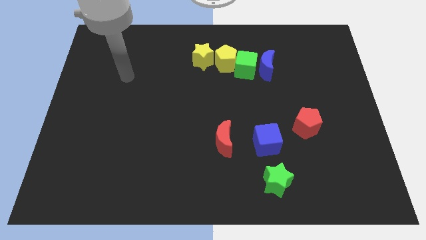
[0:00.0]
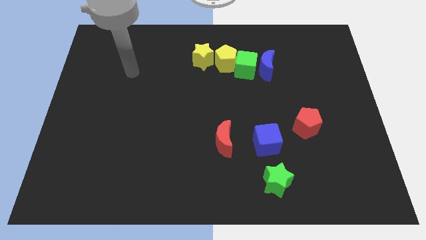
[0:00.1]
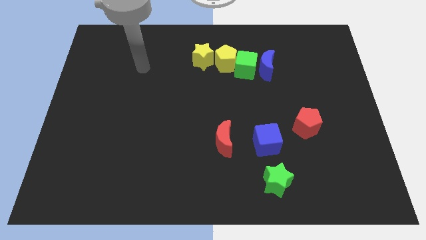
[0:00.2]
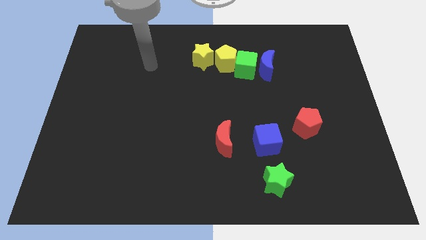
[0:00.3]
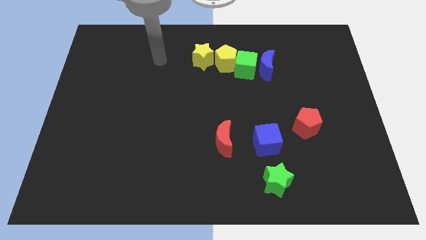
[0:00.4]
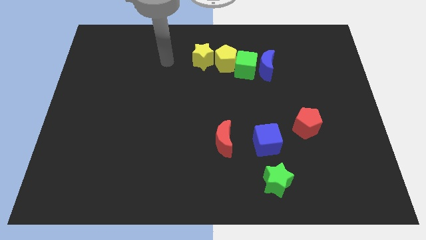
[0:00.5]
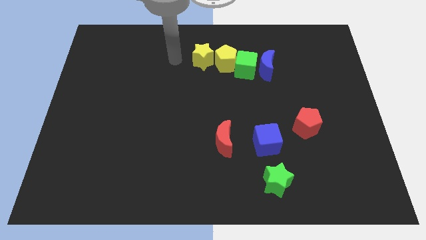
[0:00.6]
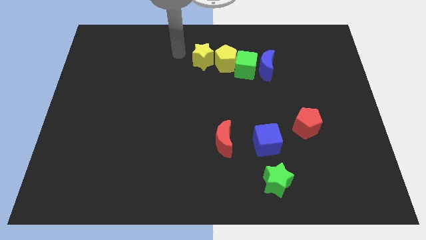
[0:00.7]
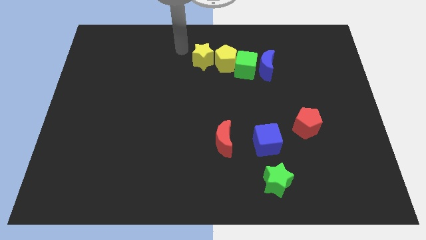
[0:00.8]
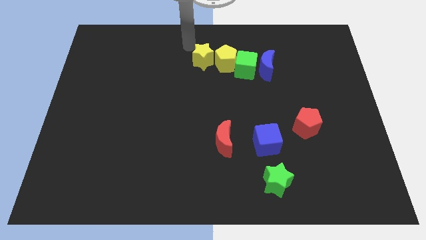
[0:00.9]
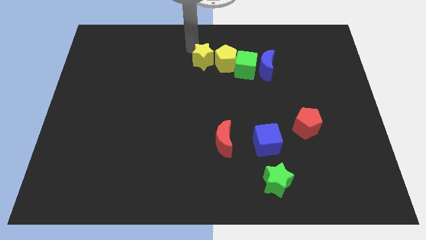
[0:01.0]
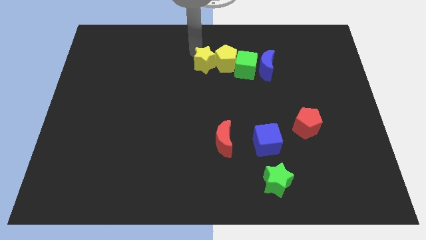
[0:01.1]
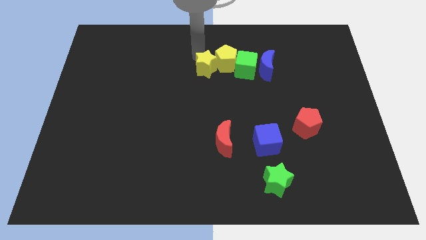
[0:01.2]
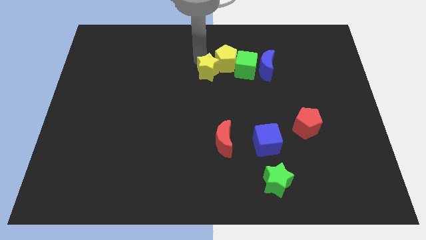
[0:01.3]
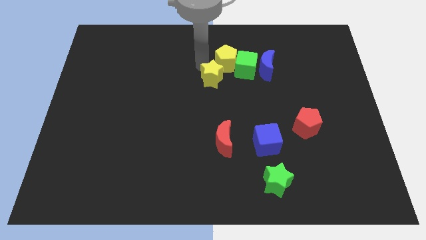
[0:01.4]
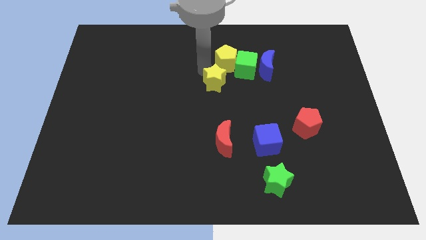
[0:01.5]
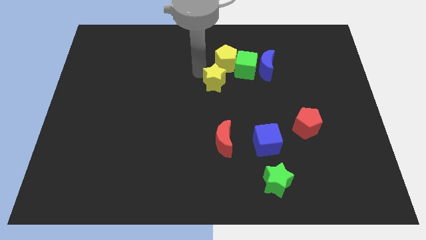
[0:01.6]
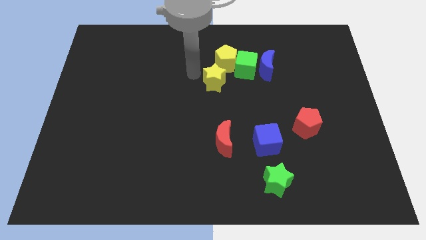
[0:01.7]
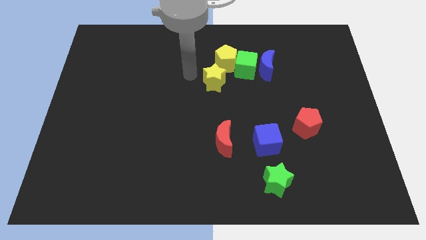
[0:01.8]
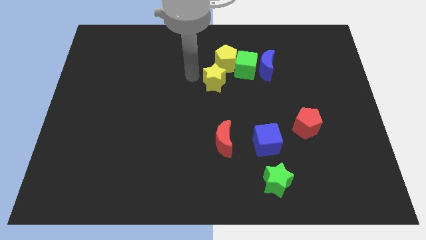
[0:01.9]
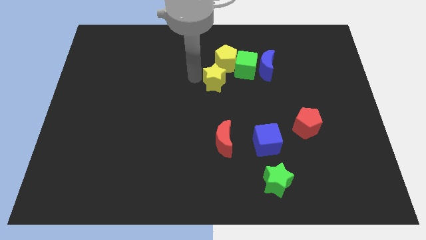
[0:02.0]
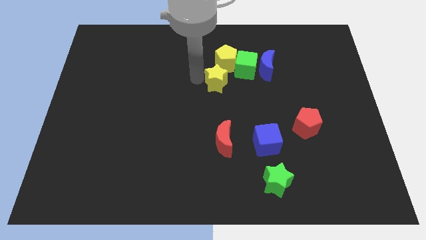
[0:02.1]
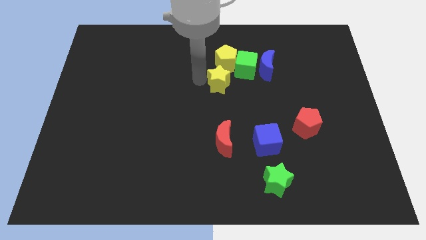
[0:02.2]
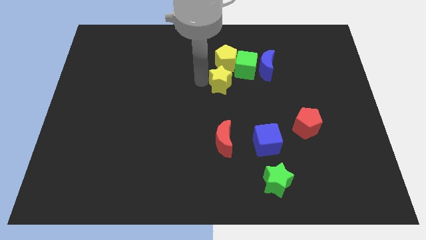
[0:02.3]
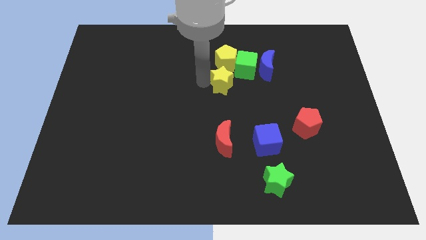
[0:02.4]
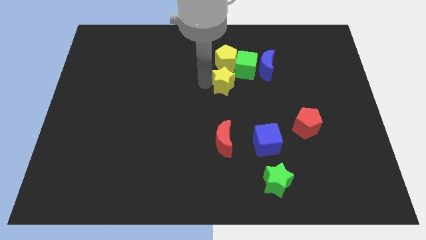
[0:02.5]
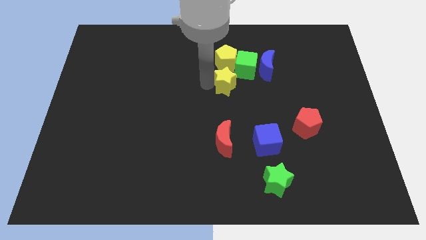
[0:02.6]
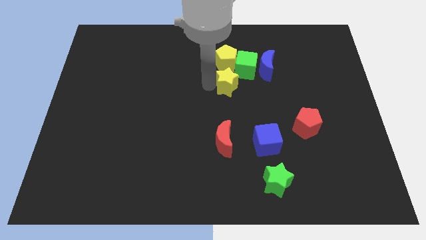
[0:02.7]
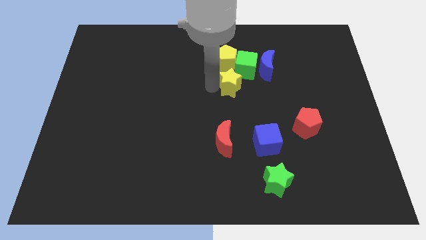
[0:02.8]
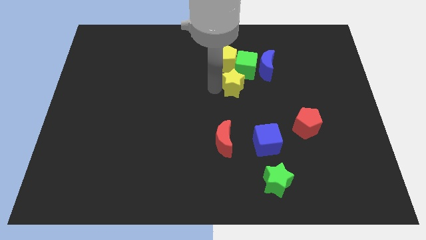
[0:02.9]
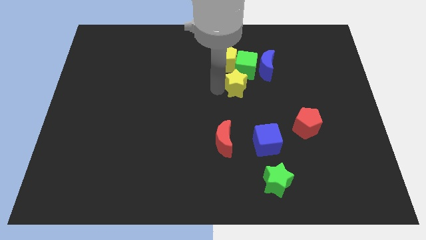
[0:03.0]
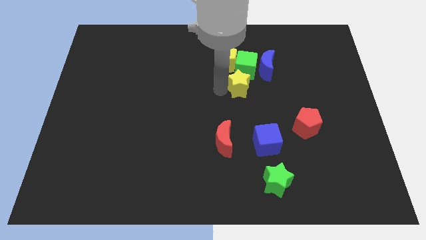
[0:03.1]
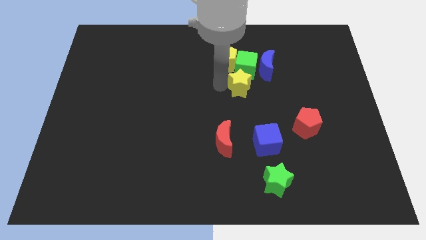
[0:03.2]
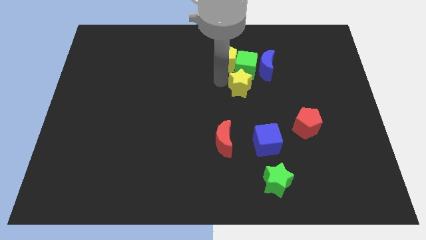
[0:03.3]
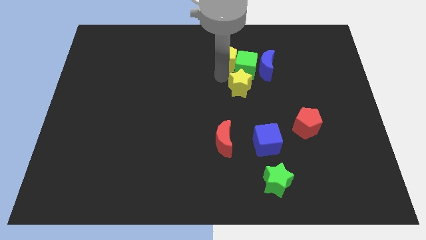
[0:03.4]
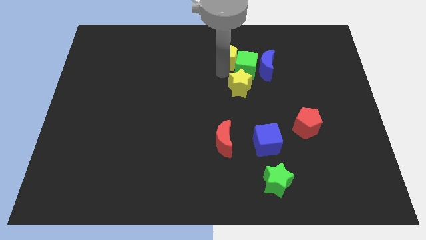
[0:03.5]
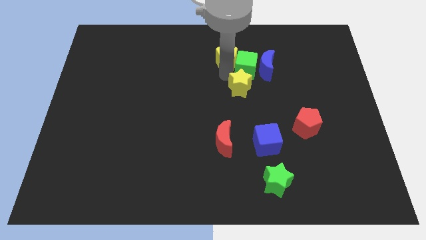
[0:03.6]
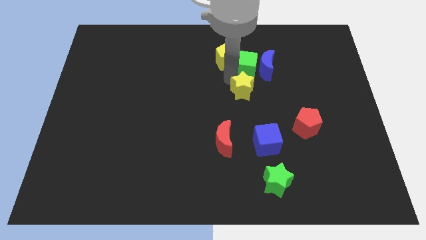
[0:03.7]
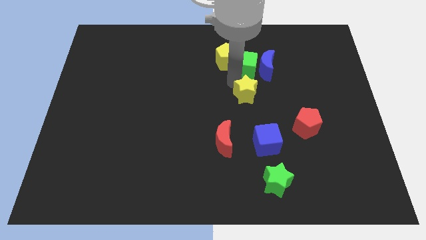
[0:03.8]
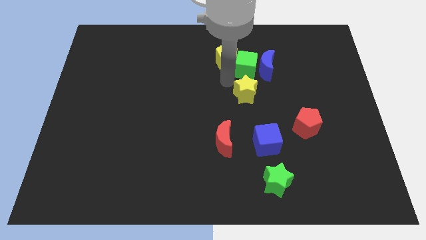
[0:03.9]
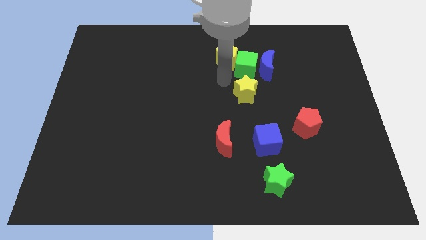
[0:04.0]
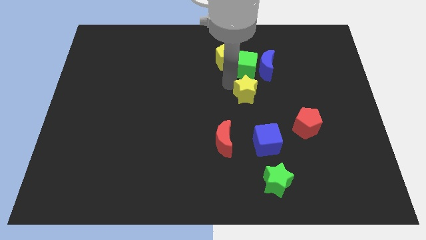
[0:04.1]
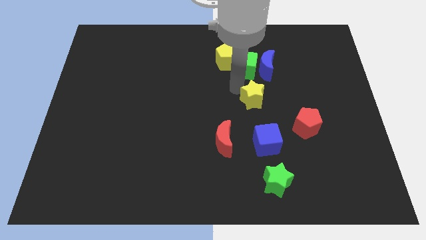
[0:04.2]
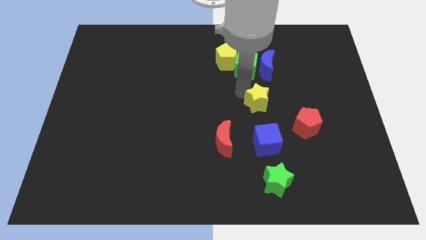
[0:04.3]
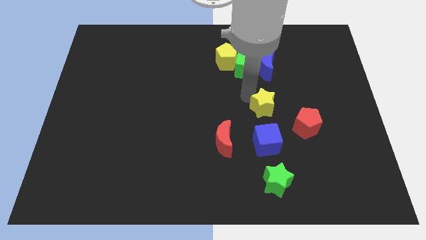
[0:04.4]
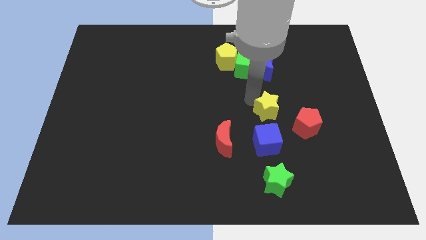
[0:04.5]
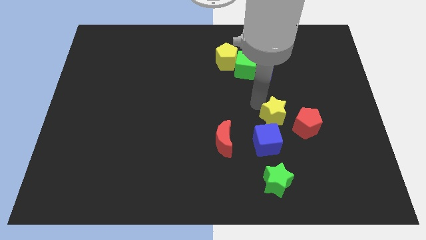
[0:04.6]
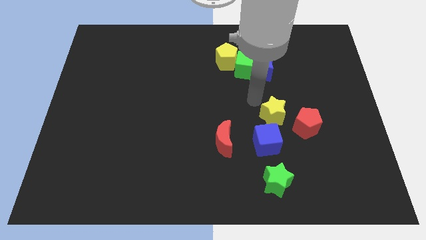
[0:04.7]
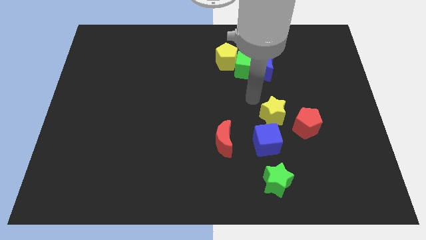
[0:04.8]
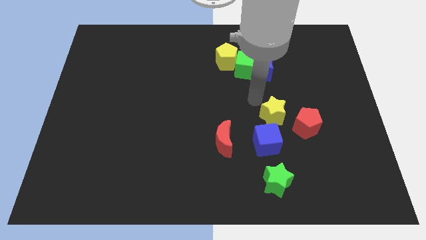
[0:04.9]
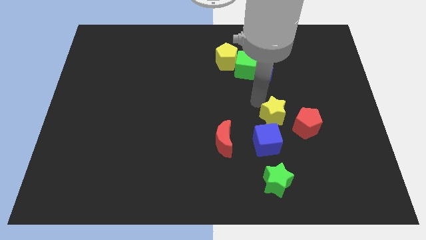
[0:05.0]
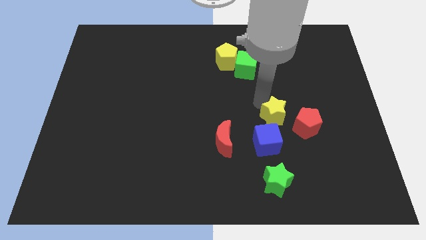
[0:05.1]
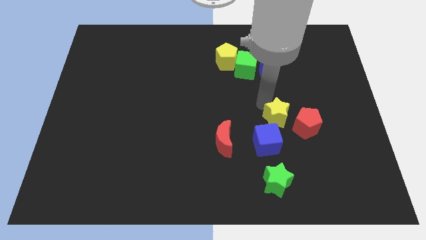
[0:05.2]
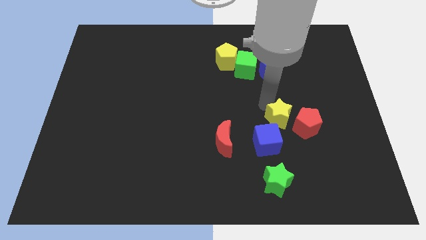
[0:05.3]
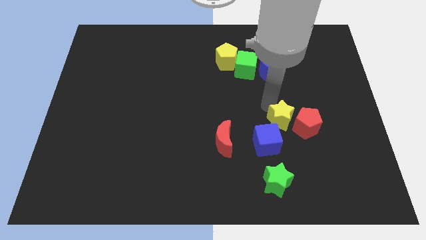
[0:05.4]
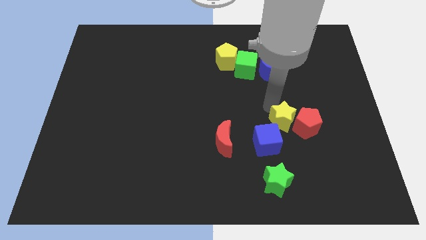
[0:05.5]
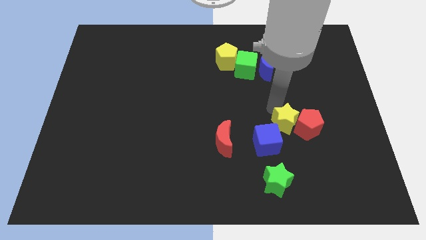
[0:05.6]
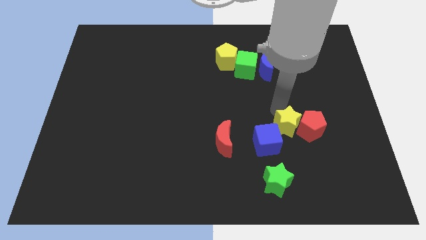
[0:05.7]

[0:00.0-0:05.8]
push the yellow star to the right side of the red moon
